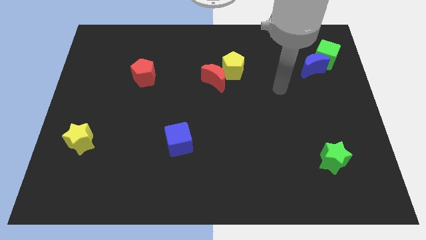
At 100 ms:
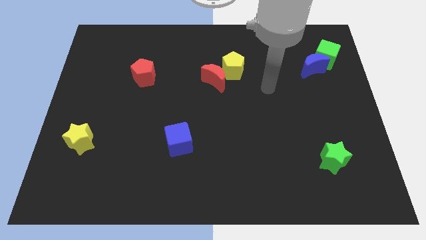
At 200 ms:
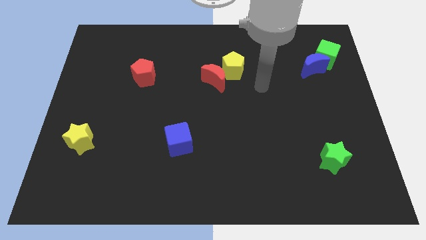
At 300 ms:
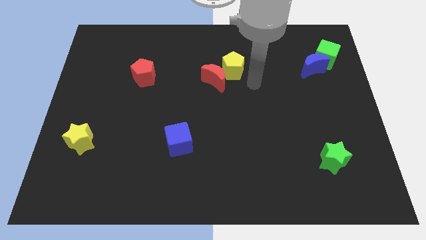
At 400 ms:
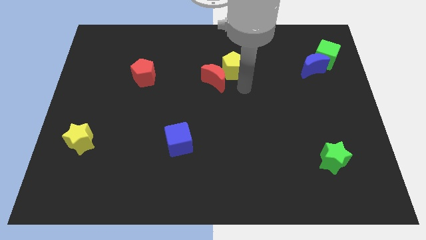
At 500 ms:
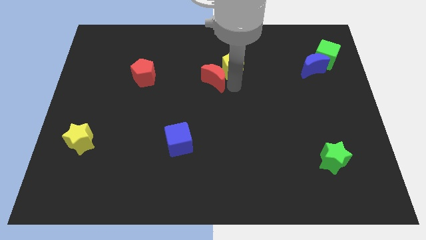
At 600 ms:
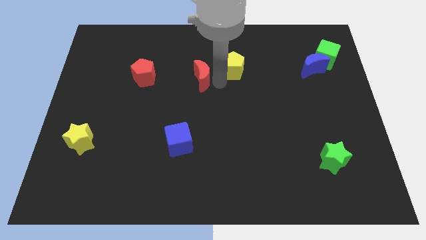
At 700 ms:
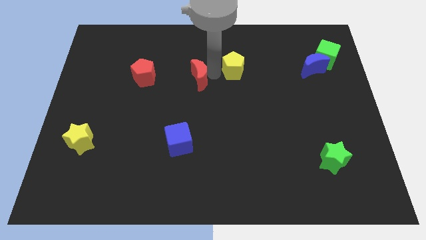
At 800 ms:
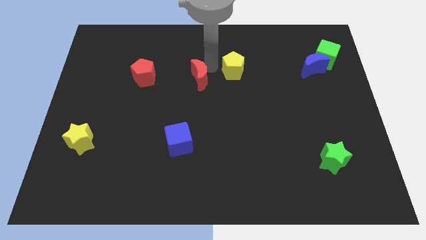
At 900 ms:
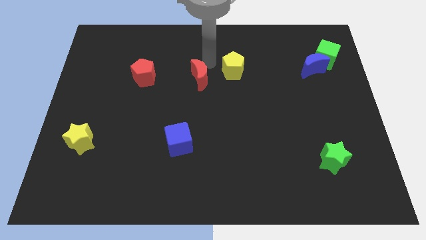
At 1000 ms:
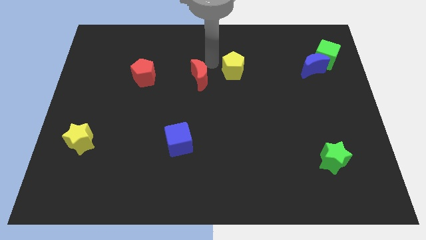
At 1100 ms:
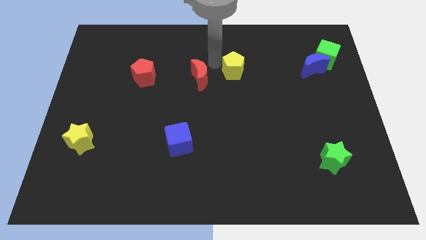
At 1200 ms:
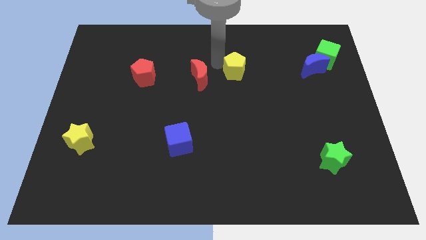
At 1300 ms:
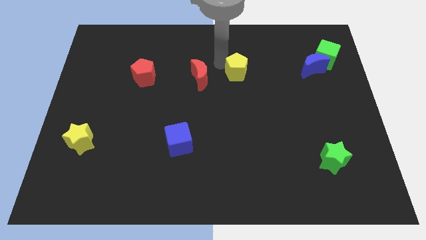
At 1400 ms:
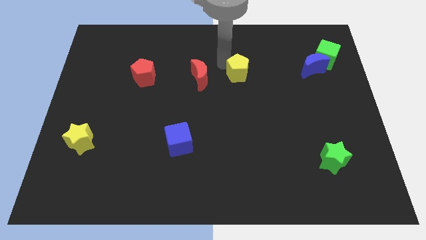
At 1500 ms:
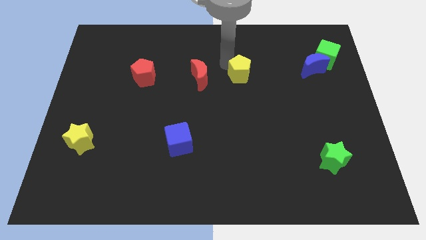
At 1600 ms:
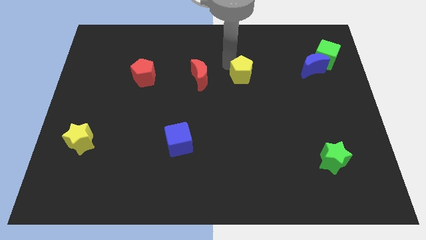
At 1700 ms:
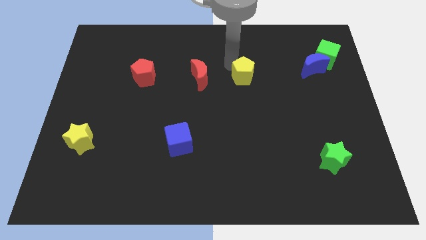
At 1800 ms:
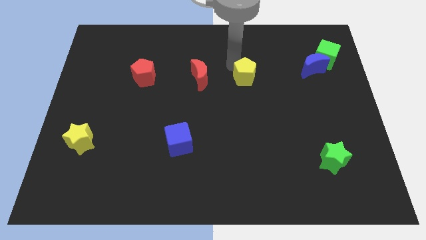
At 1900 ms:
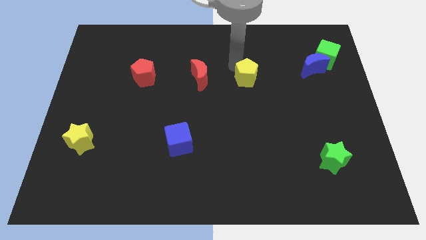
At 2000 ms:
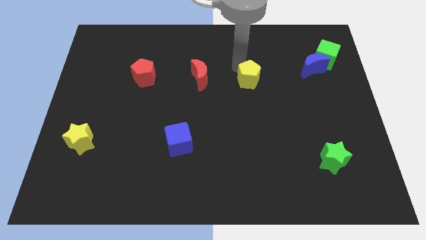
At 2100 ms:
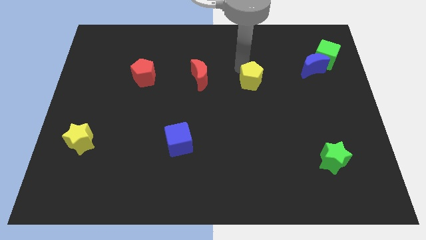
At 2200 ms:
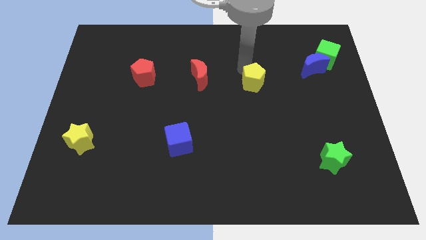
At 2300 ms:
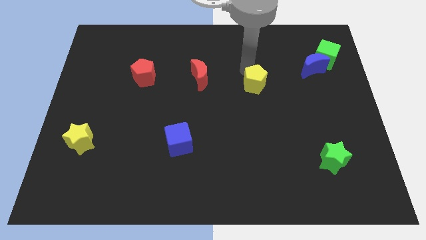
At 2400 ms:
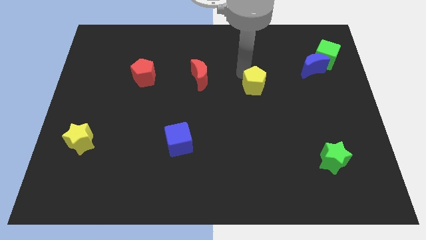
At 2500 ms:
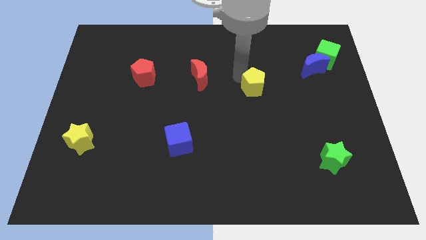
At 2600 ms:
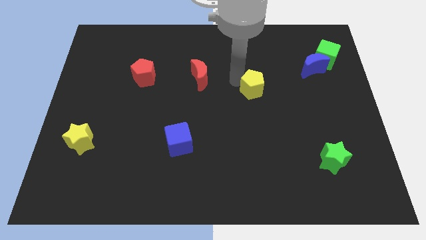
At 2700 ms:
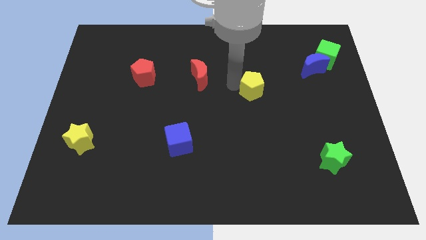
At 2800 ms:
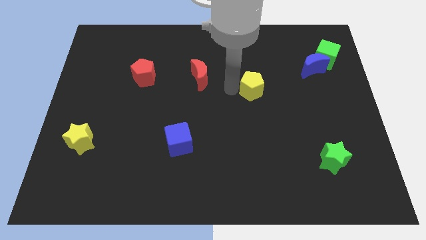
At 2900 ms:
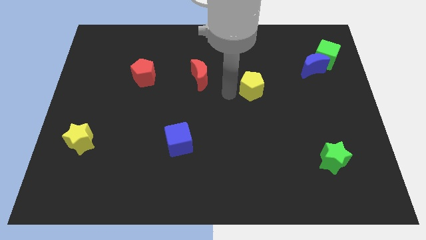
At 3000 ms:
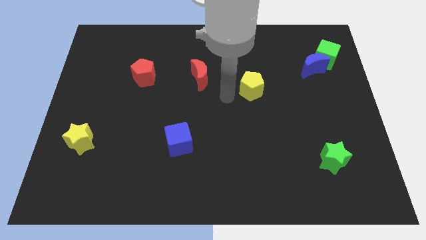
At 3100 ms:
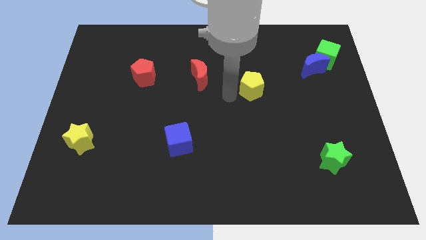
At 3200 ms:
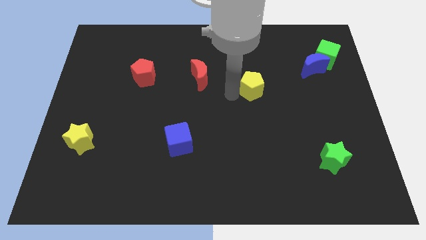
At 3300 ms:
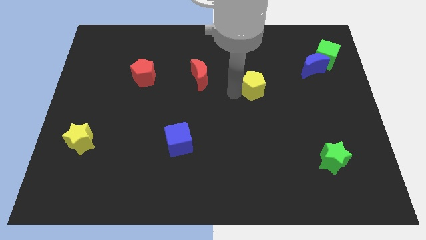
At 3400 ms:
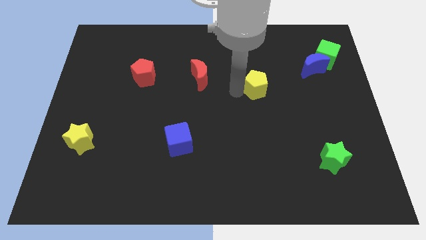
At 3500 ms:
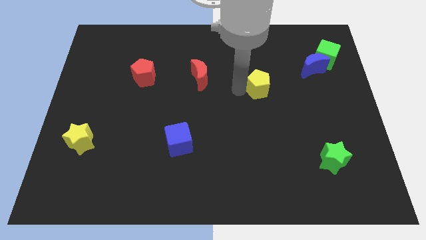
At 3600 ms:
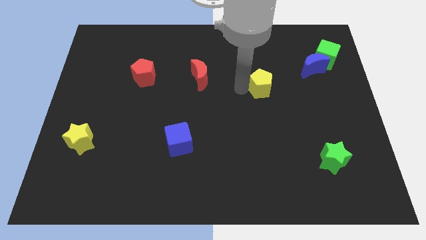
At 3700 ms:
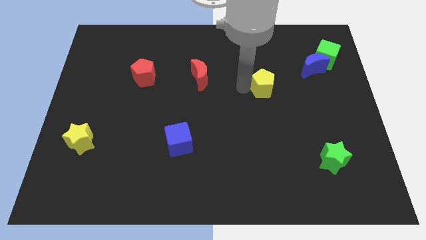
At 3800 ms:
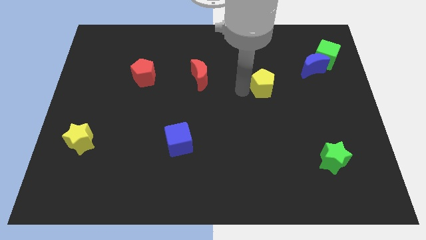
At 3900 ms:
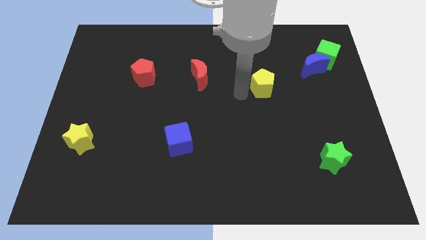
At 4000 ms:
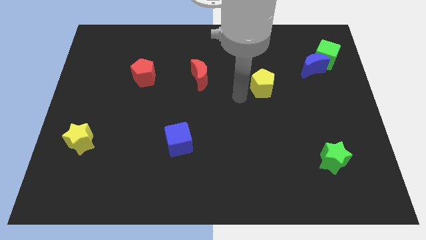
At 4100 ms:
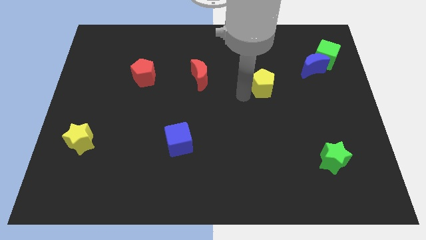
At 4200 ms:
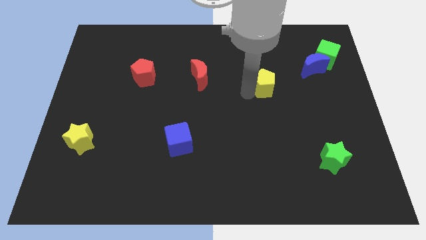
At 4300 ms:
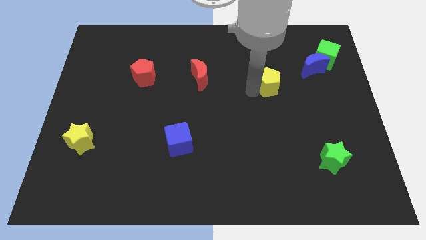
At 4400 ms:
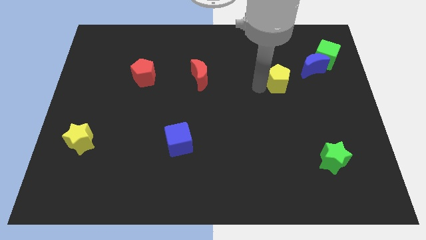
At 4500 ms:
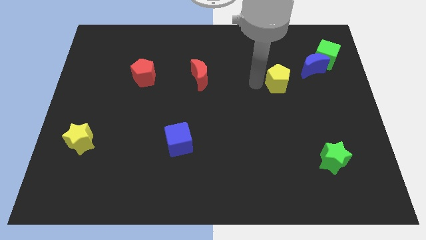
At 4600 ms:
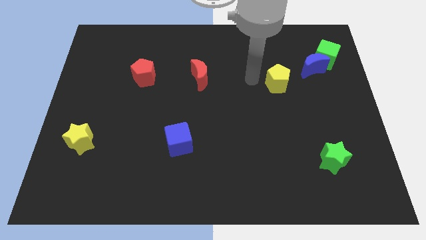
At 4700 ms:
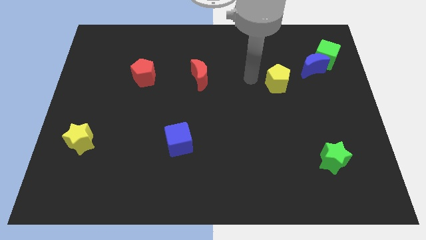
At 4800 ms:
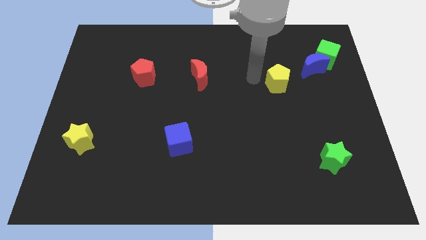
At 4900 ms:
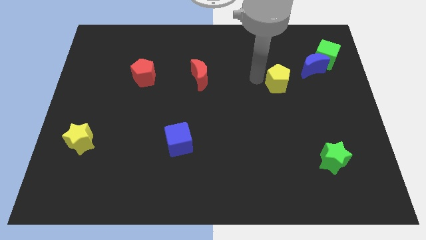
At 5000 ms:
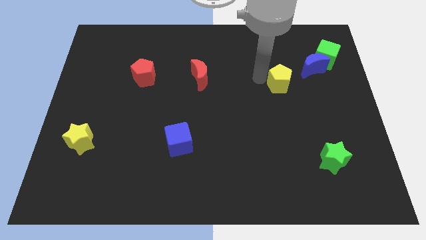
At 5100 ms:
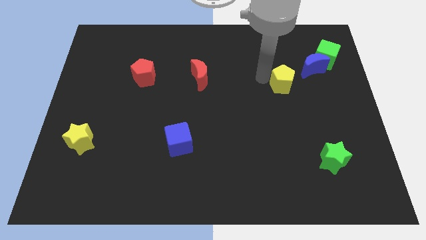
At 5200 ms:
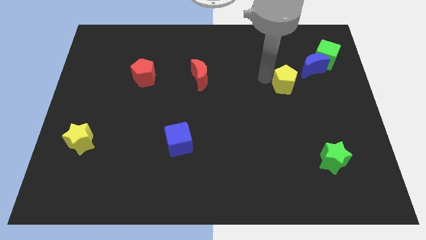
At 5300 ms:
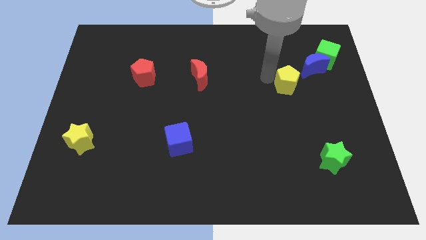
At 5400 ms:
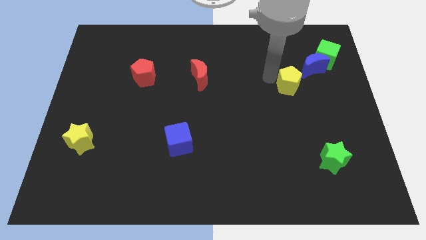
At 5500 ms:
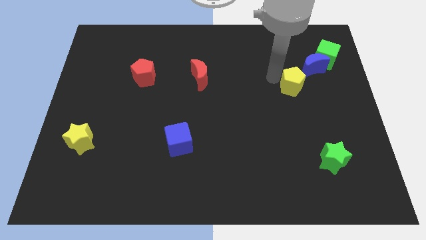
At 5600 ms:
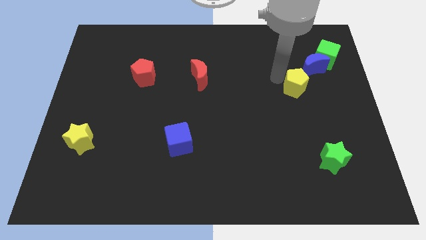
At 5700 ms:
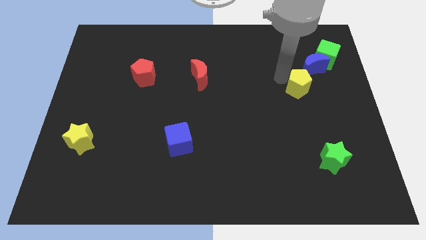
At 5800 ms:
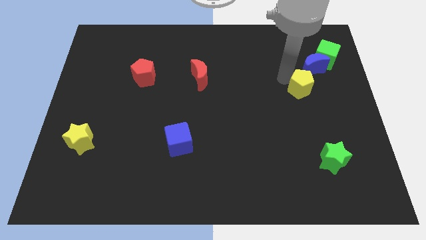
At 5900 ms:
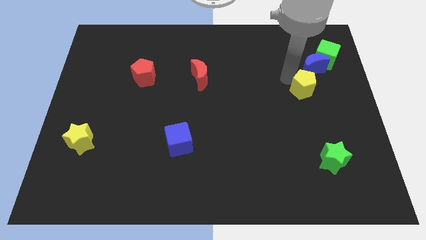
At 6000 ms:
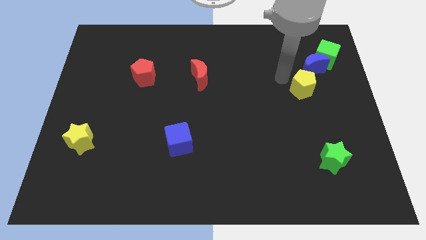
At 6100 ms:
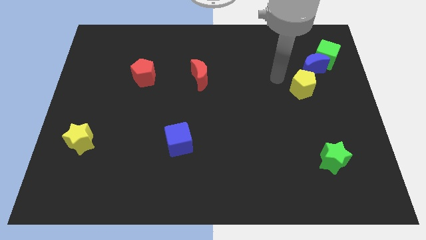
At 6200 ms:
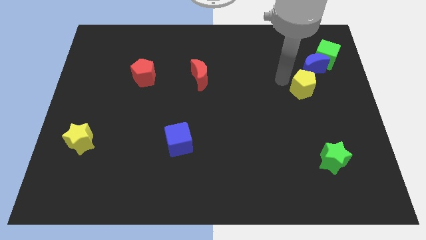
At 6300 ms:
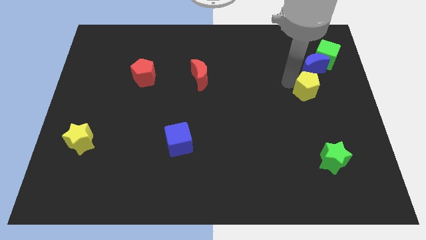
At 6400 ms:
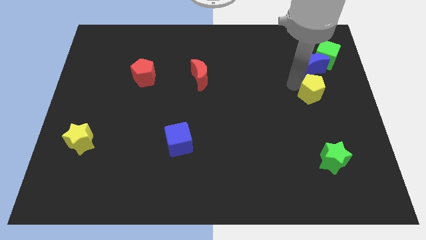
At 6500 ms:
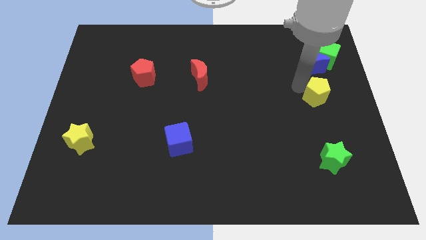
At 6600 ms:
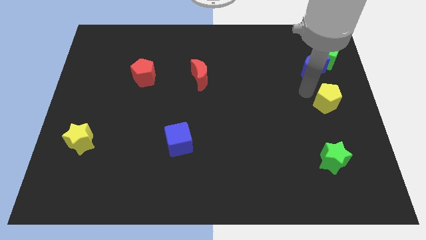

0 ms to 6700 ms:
move the yellow pentagon to the right side of the board

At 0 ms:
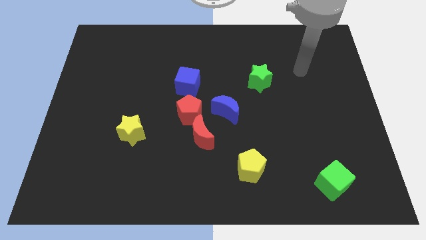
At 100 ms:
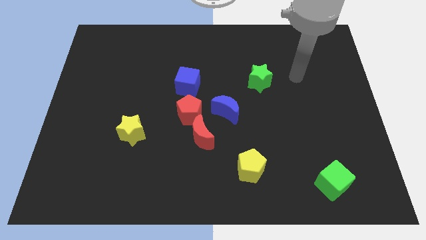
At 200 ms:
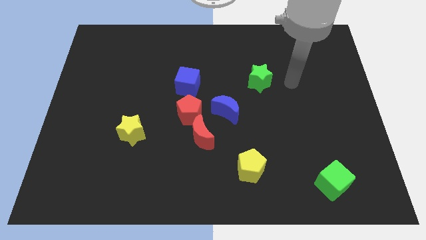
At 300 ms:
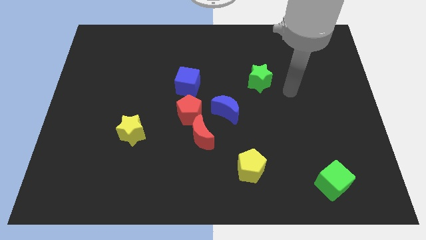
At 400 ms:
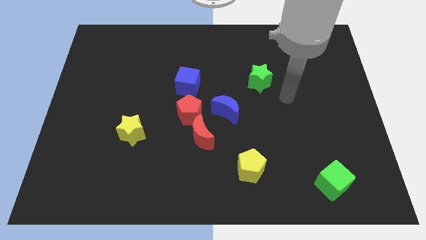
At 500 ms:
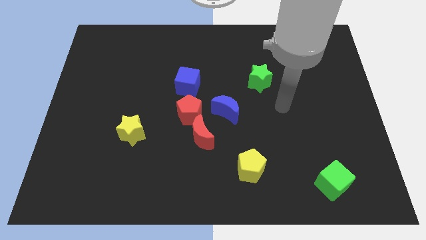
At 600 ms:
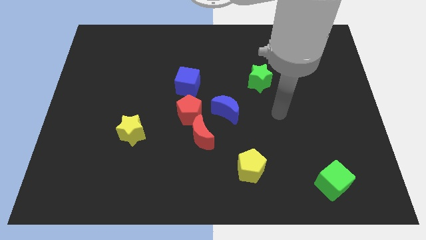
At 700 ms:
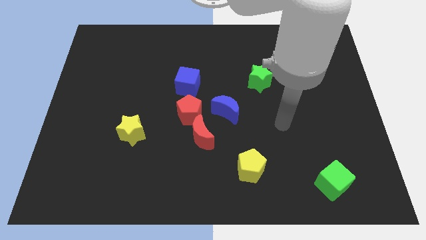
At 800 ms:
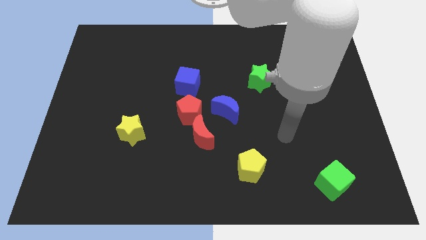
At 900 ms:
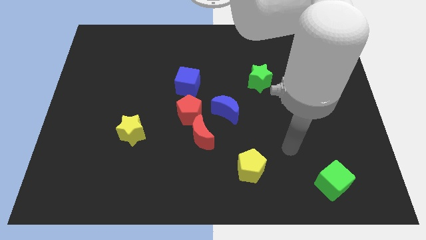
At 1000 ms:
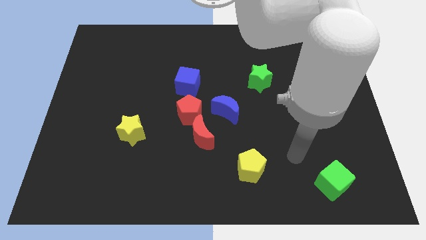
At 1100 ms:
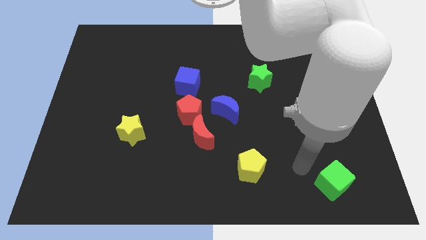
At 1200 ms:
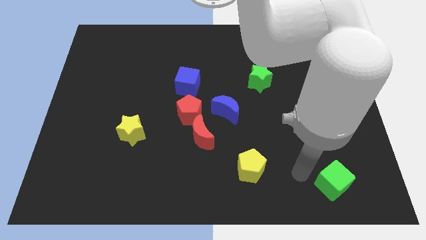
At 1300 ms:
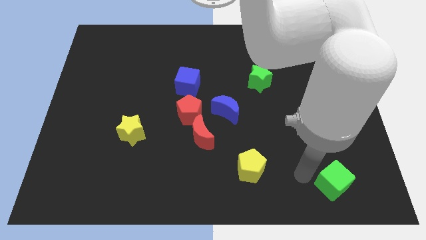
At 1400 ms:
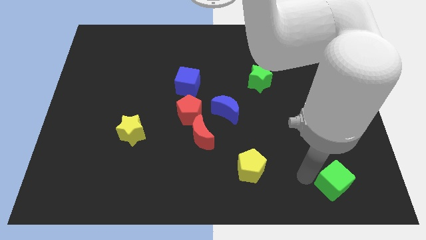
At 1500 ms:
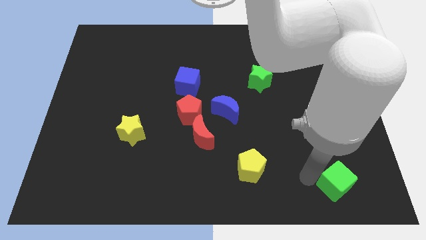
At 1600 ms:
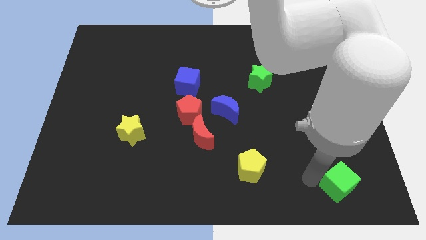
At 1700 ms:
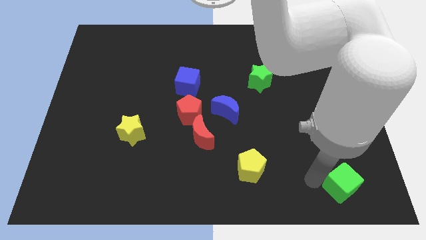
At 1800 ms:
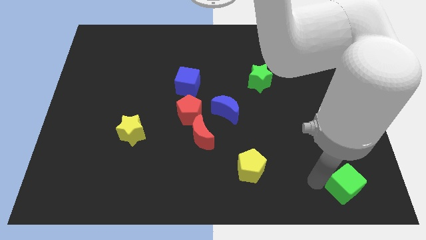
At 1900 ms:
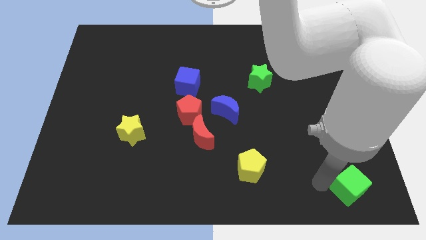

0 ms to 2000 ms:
put the green cube to the lower right corner
